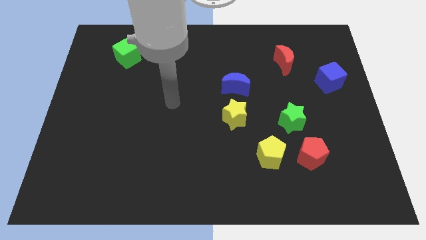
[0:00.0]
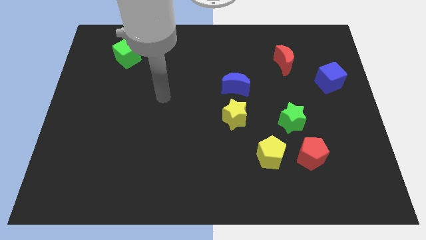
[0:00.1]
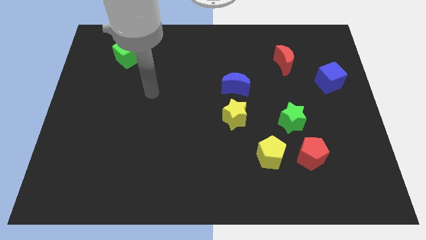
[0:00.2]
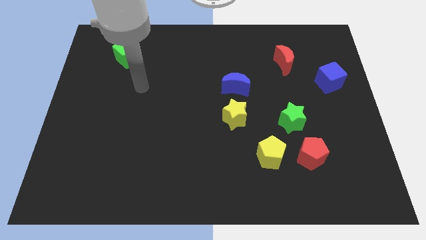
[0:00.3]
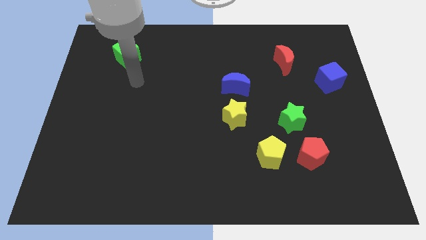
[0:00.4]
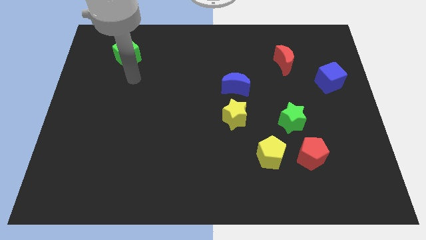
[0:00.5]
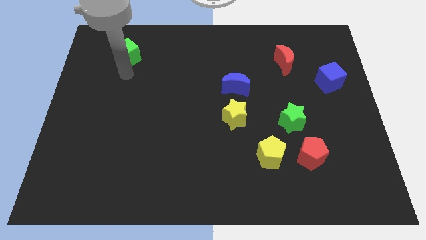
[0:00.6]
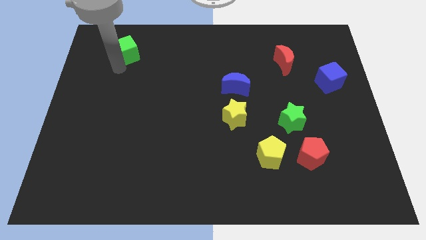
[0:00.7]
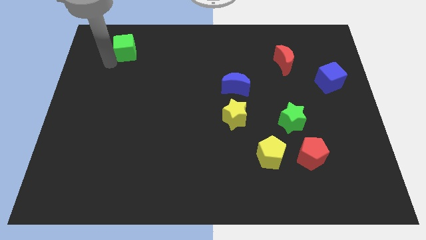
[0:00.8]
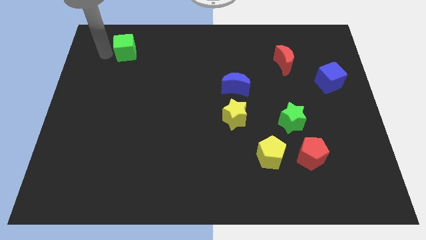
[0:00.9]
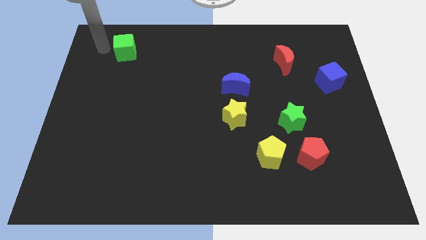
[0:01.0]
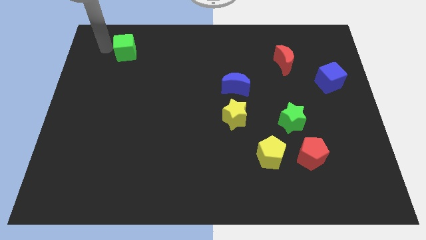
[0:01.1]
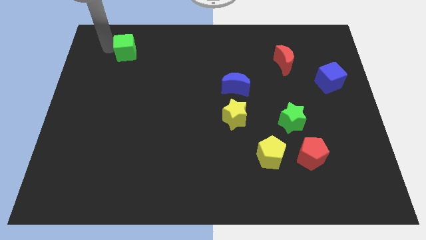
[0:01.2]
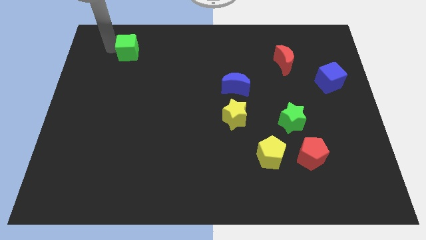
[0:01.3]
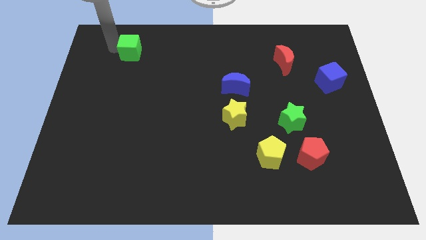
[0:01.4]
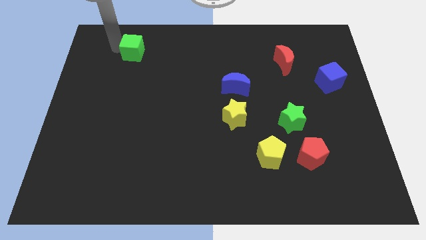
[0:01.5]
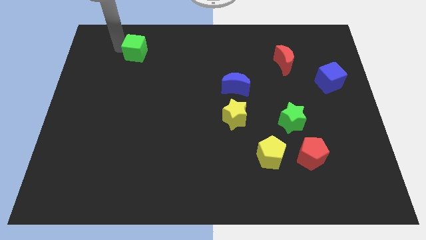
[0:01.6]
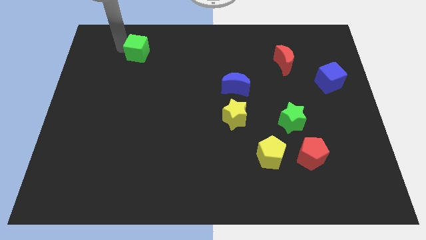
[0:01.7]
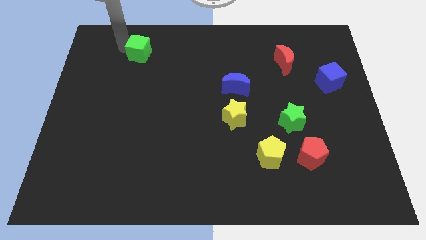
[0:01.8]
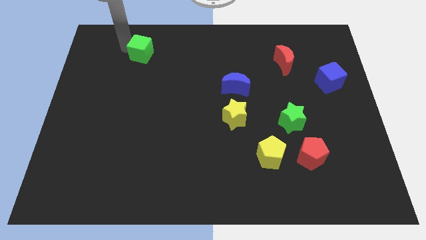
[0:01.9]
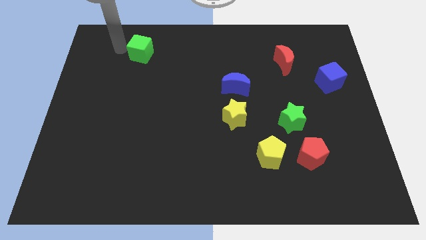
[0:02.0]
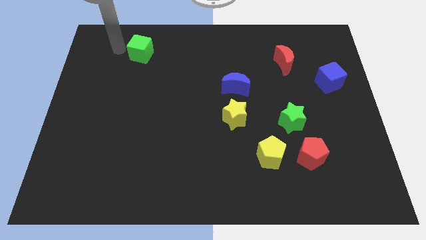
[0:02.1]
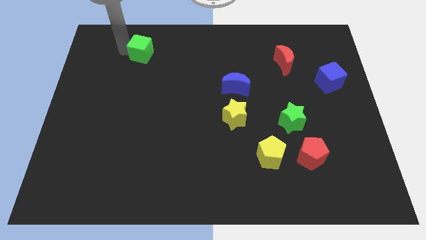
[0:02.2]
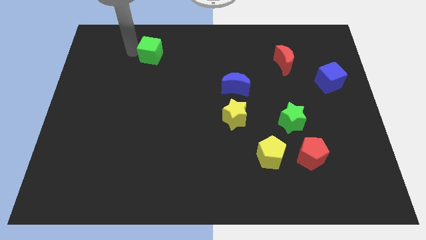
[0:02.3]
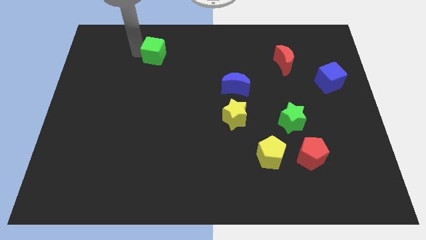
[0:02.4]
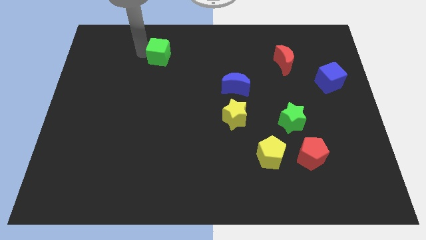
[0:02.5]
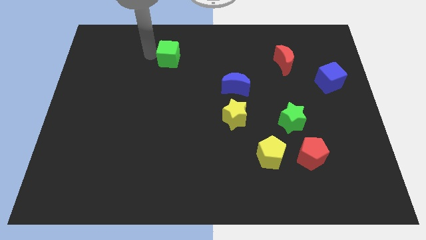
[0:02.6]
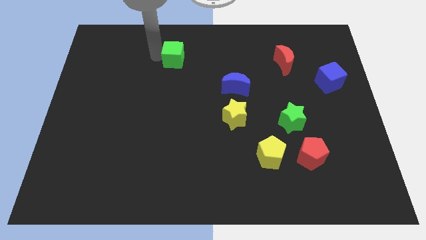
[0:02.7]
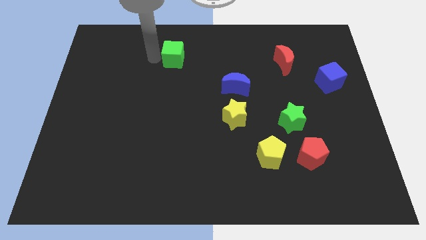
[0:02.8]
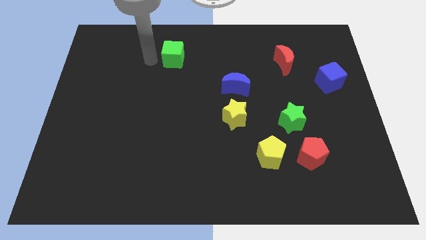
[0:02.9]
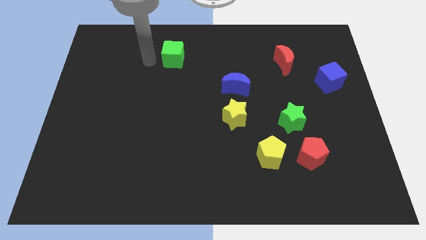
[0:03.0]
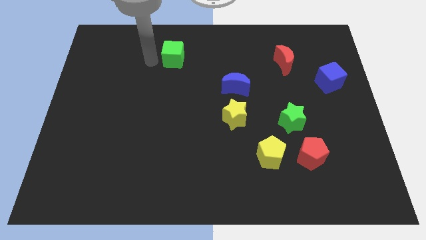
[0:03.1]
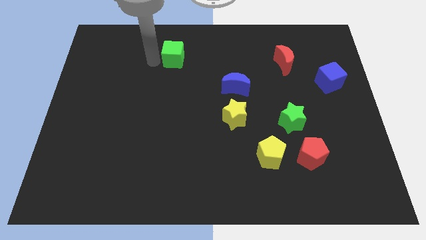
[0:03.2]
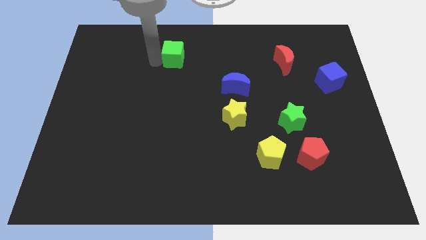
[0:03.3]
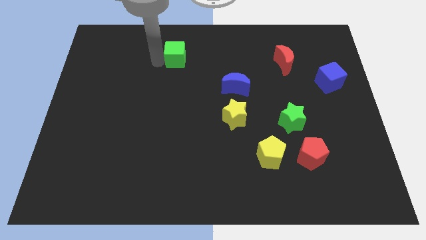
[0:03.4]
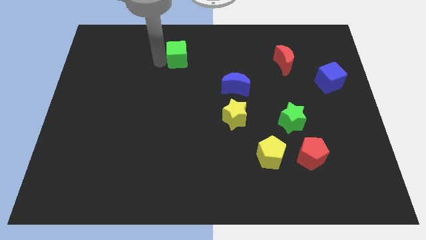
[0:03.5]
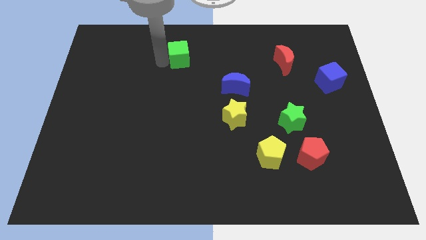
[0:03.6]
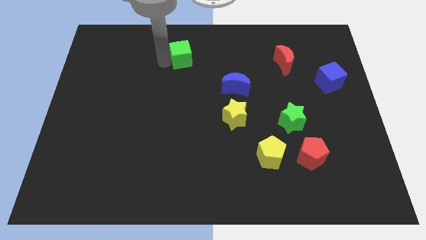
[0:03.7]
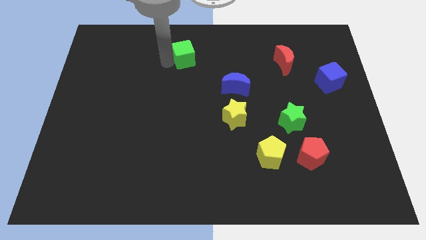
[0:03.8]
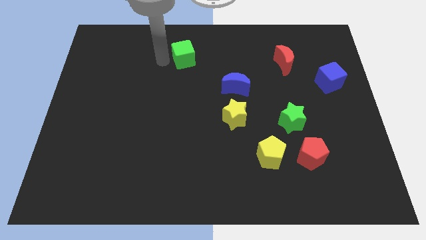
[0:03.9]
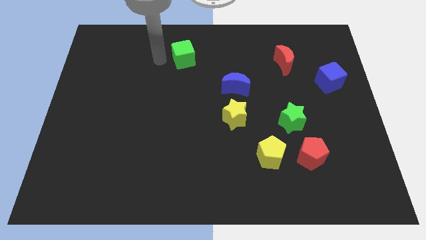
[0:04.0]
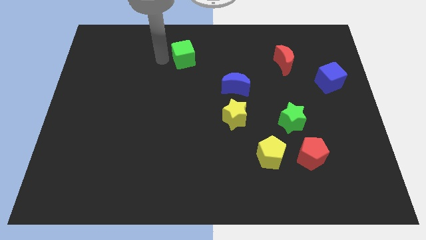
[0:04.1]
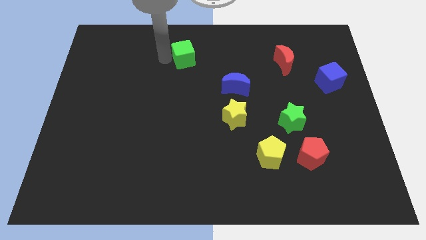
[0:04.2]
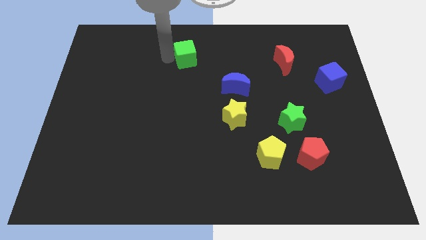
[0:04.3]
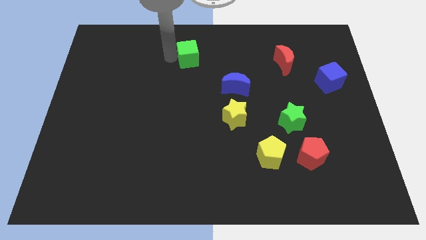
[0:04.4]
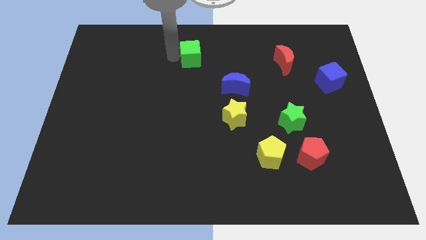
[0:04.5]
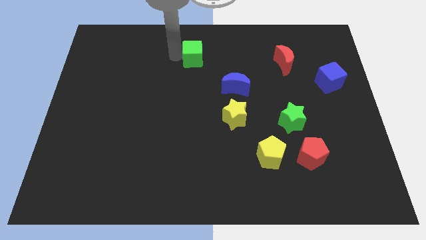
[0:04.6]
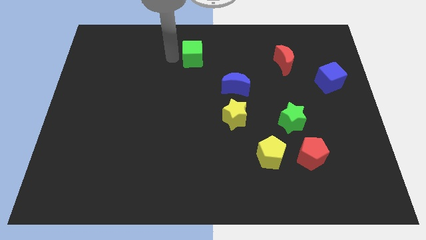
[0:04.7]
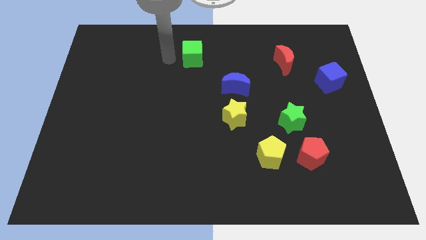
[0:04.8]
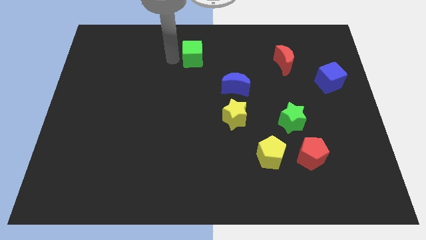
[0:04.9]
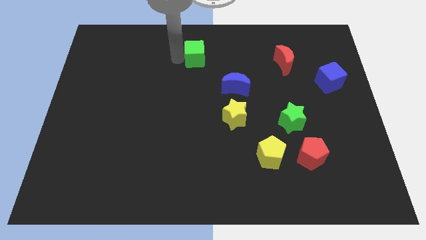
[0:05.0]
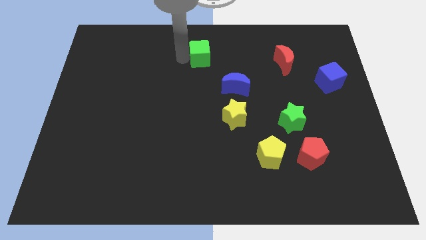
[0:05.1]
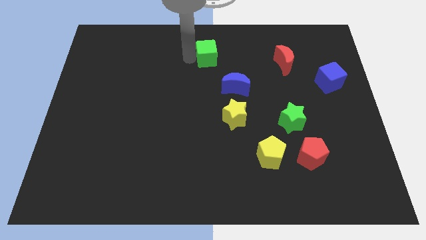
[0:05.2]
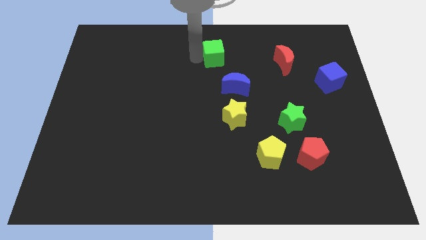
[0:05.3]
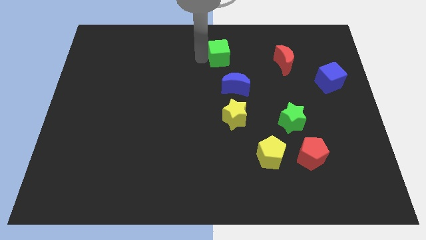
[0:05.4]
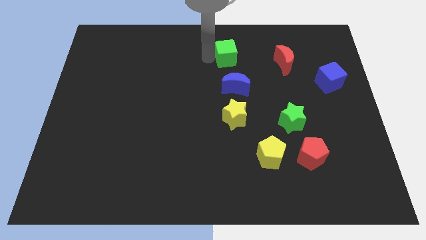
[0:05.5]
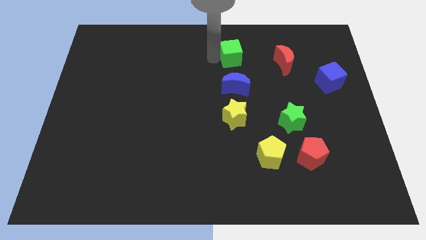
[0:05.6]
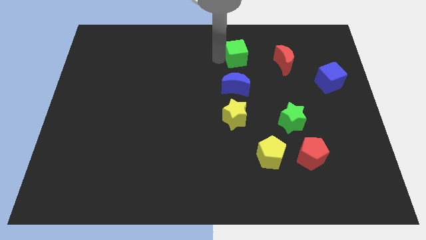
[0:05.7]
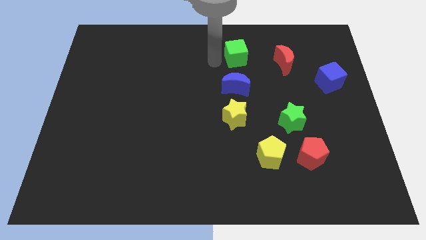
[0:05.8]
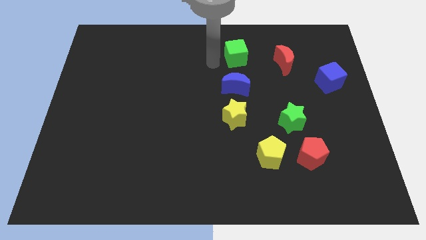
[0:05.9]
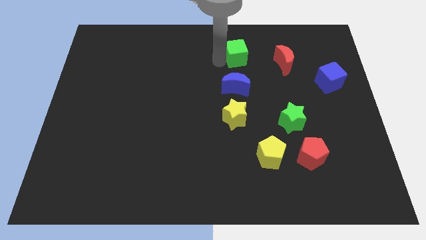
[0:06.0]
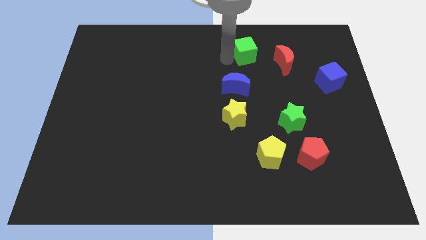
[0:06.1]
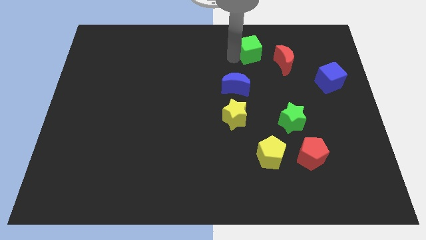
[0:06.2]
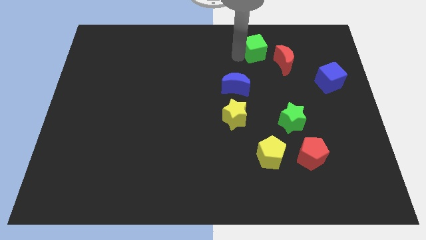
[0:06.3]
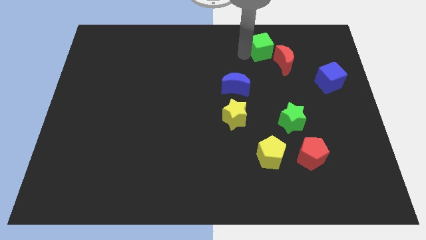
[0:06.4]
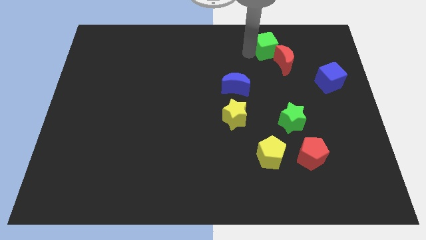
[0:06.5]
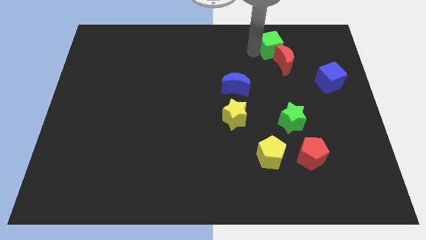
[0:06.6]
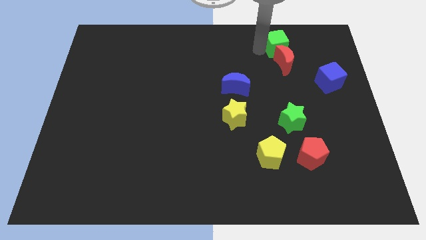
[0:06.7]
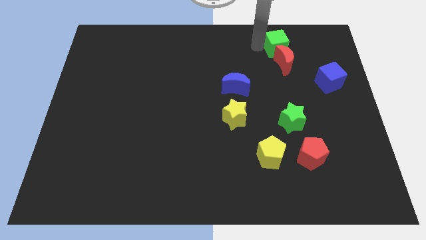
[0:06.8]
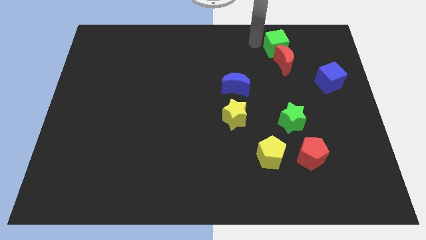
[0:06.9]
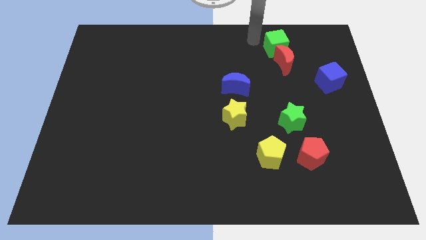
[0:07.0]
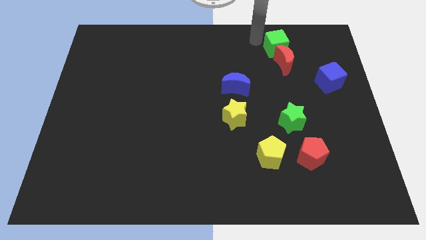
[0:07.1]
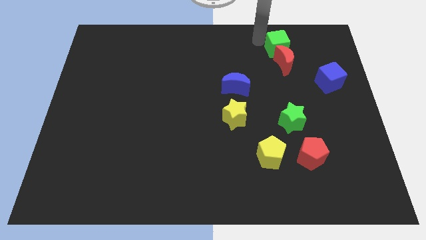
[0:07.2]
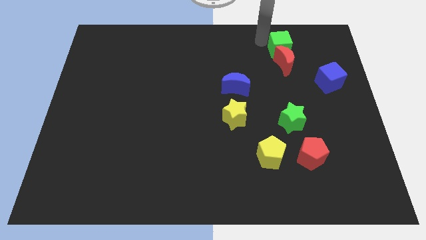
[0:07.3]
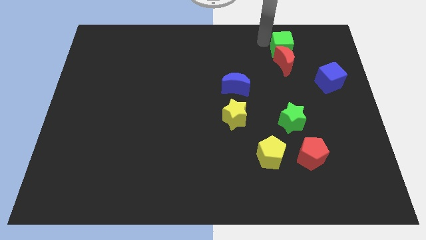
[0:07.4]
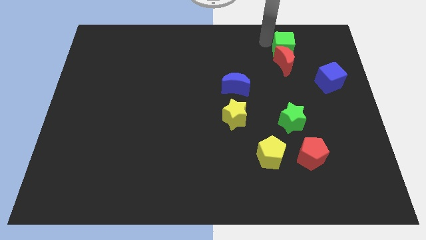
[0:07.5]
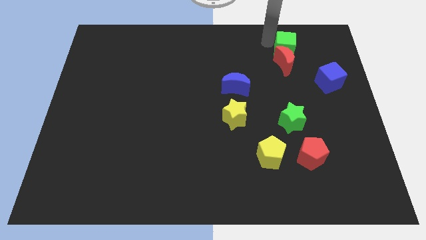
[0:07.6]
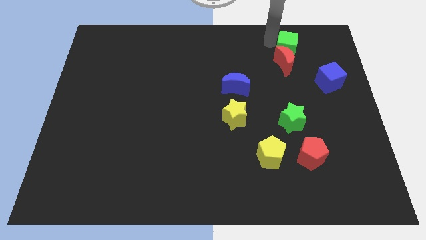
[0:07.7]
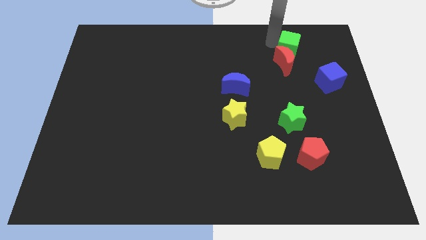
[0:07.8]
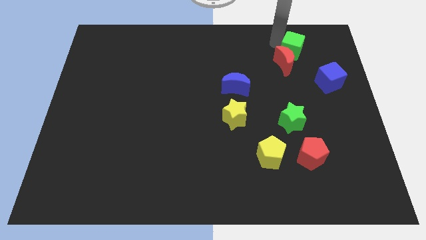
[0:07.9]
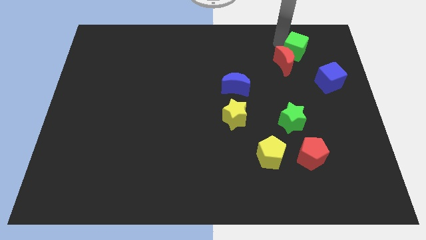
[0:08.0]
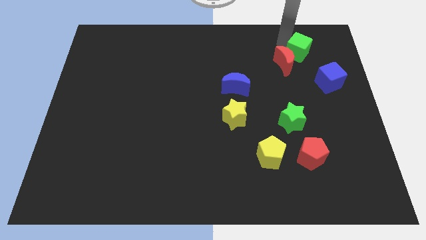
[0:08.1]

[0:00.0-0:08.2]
move the green cube just right of the red moon
